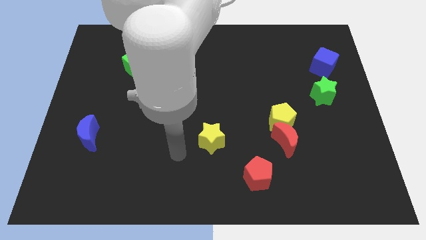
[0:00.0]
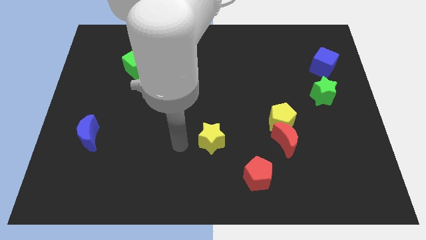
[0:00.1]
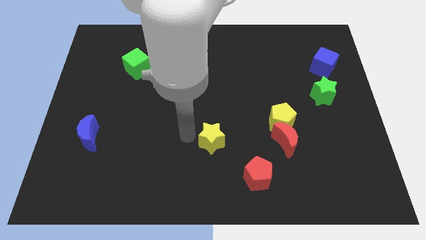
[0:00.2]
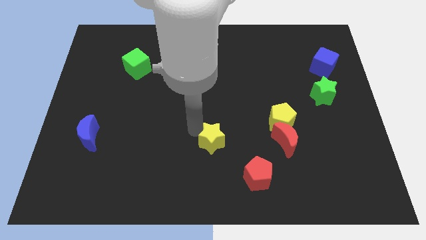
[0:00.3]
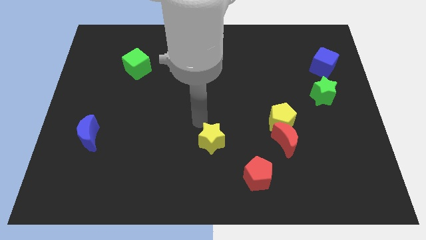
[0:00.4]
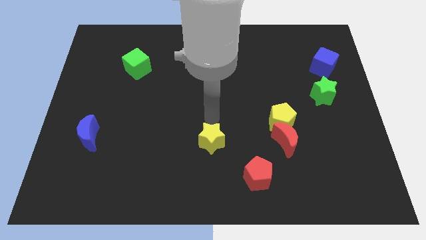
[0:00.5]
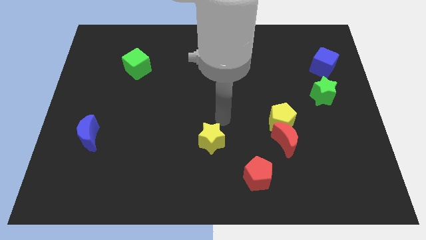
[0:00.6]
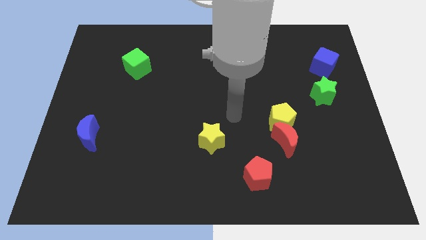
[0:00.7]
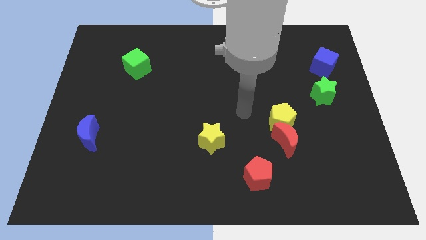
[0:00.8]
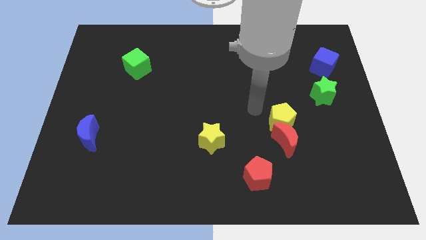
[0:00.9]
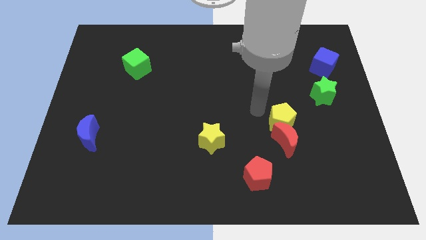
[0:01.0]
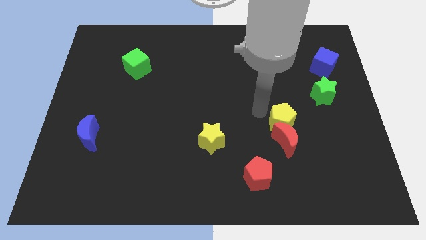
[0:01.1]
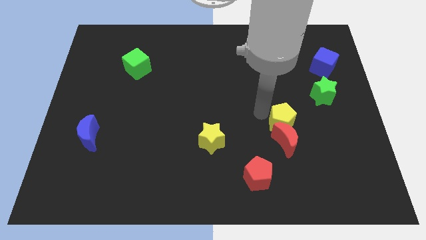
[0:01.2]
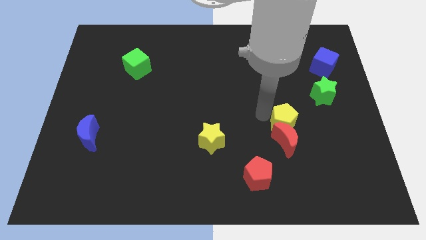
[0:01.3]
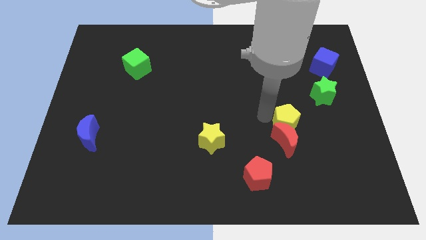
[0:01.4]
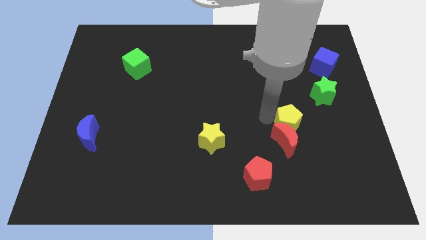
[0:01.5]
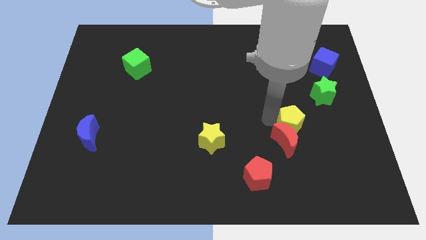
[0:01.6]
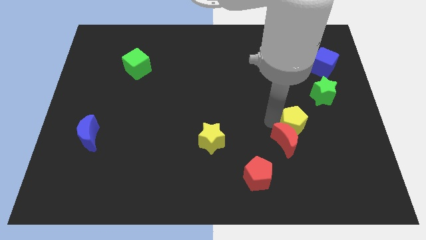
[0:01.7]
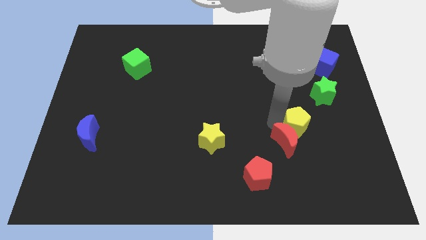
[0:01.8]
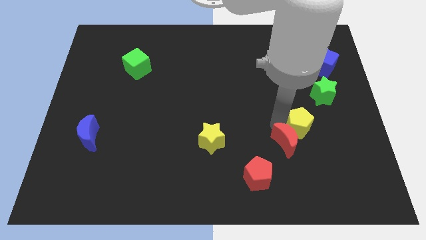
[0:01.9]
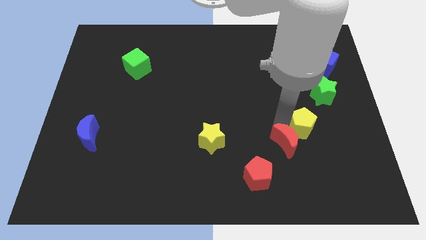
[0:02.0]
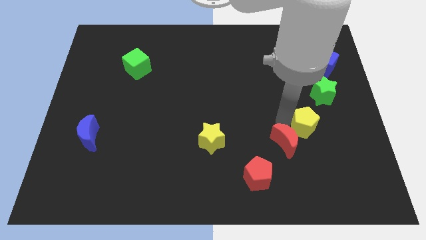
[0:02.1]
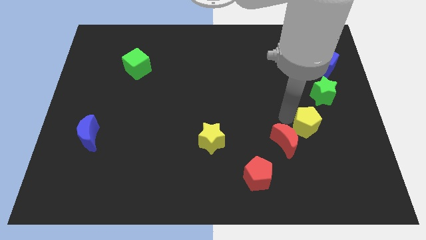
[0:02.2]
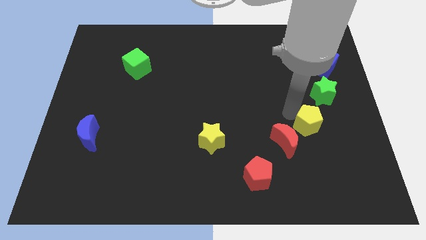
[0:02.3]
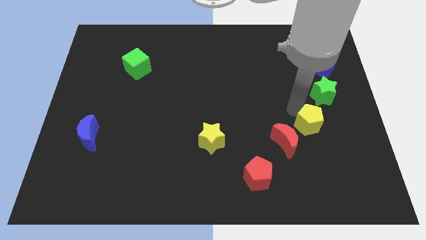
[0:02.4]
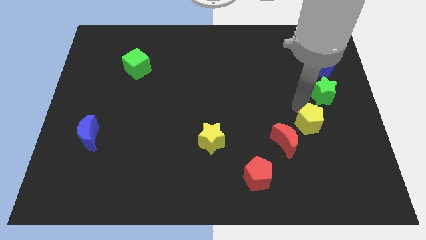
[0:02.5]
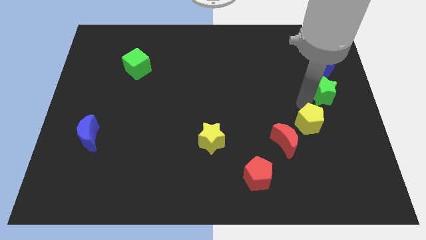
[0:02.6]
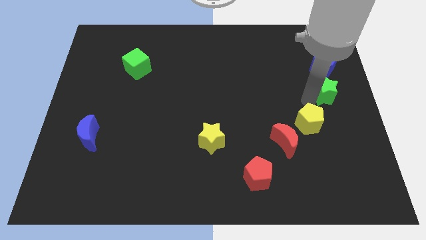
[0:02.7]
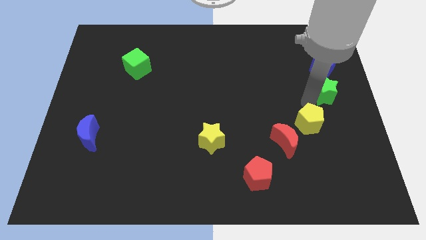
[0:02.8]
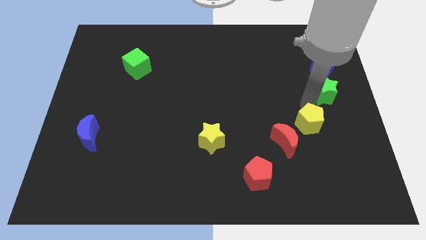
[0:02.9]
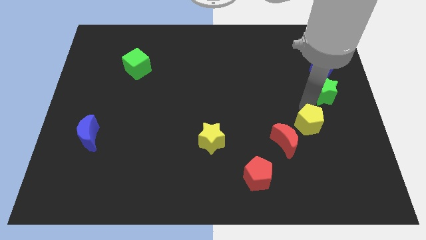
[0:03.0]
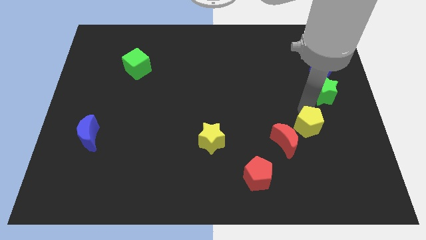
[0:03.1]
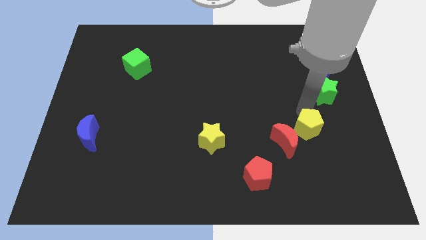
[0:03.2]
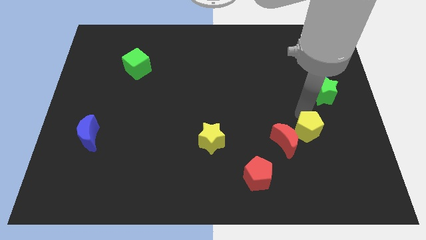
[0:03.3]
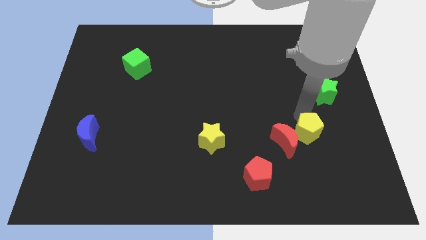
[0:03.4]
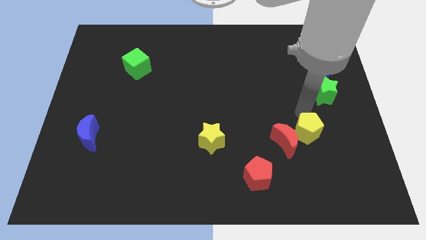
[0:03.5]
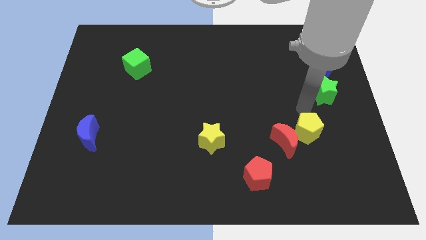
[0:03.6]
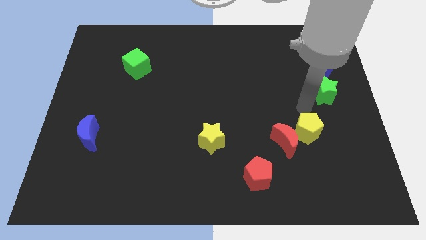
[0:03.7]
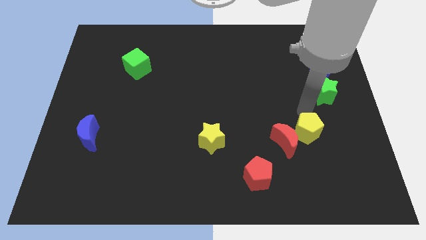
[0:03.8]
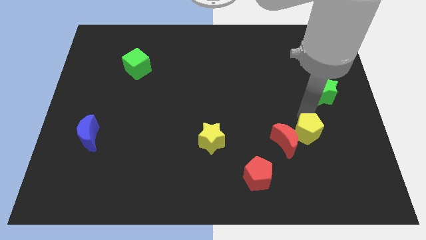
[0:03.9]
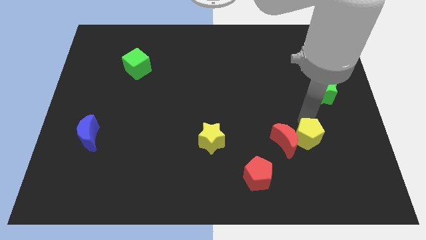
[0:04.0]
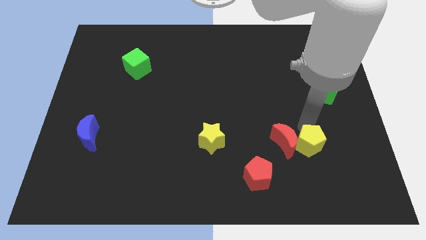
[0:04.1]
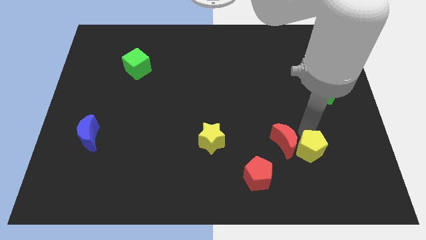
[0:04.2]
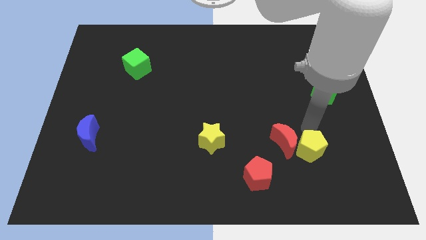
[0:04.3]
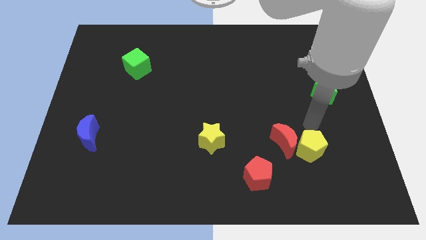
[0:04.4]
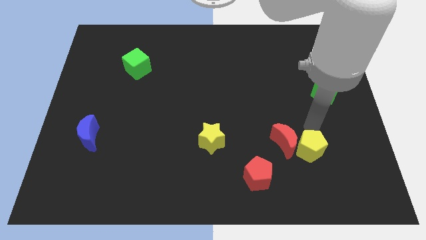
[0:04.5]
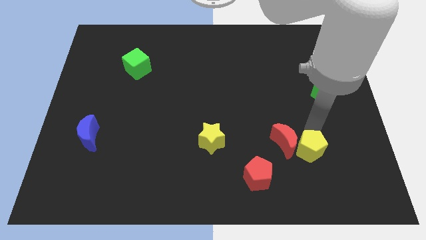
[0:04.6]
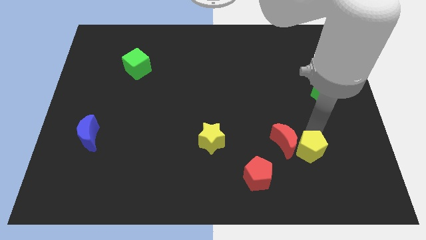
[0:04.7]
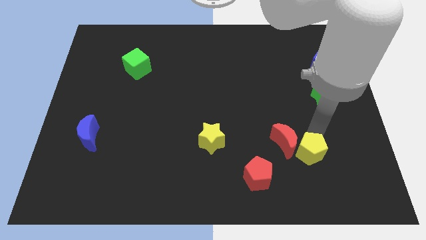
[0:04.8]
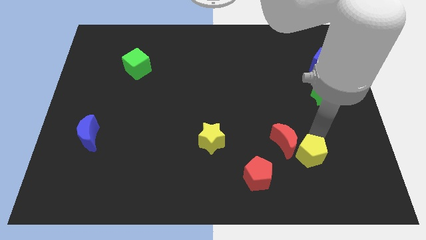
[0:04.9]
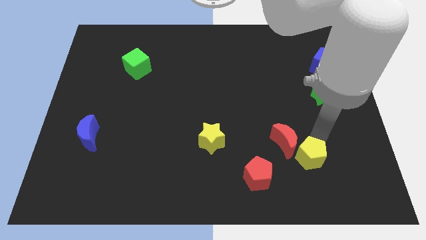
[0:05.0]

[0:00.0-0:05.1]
move the yellow pentagon to the right side of the red pentagon

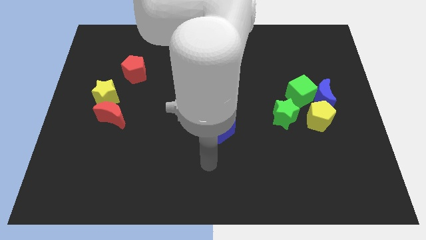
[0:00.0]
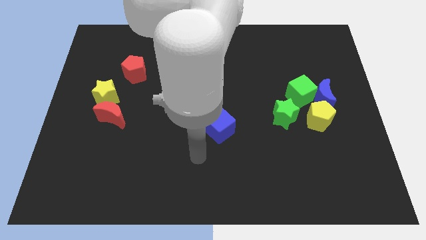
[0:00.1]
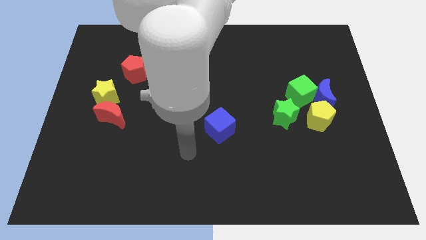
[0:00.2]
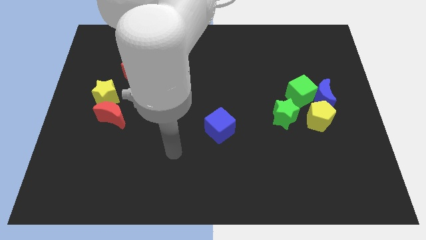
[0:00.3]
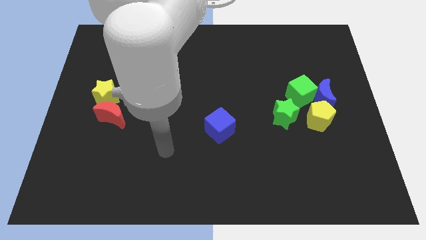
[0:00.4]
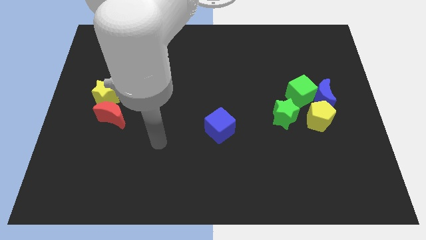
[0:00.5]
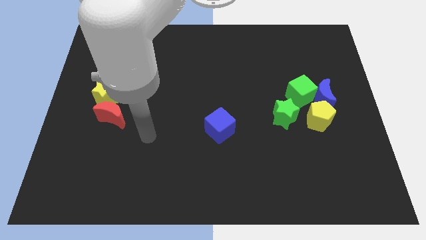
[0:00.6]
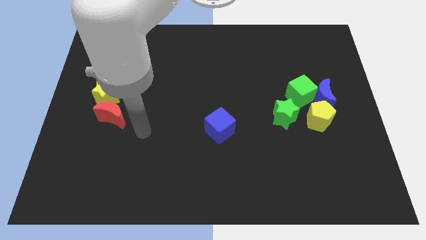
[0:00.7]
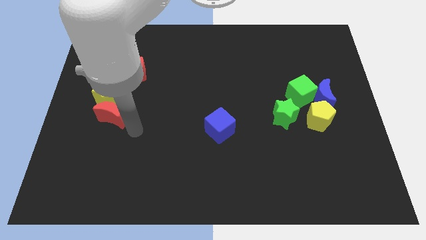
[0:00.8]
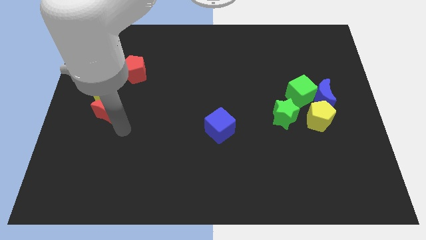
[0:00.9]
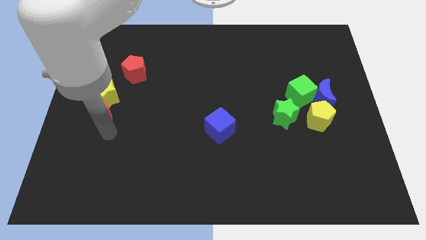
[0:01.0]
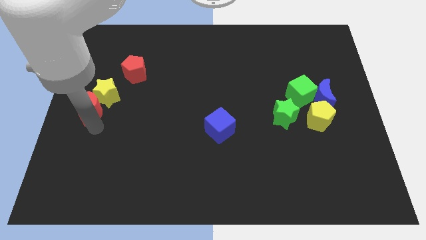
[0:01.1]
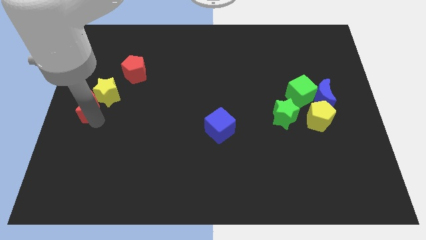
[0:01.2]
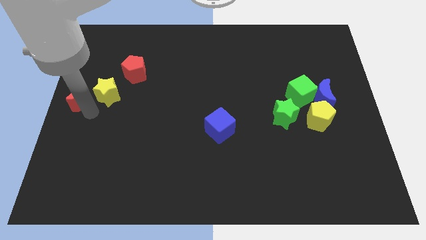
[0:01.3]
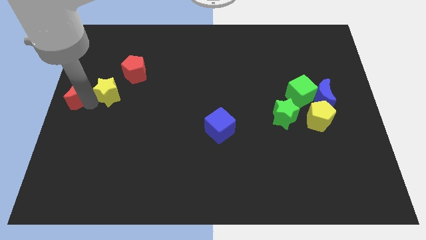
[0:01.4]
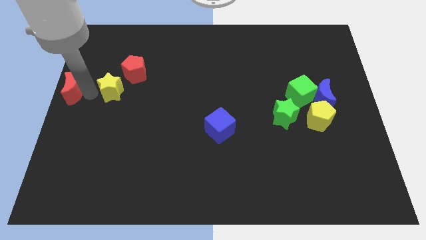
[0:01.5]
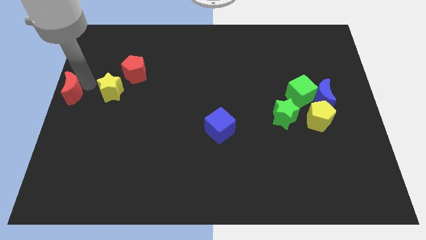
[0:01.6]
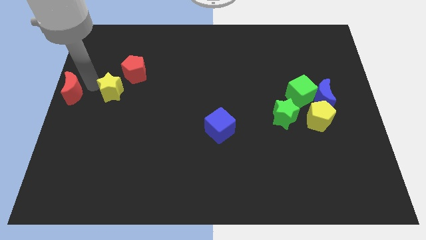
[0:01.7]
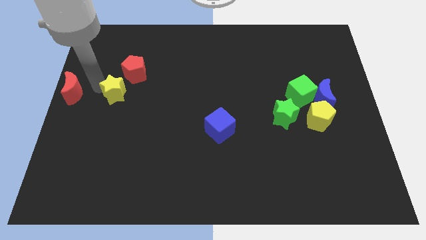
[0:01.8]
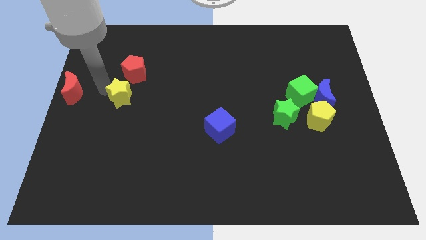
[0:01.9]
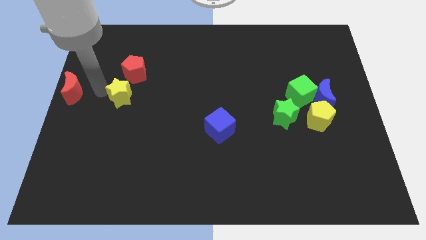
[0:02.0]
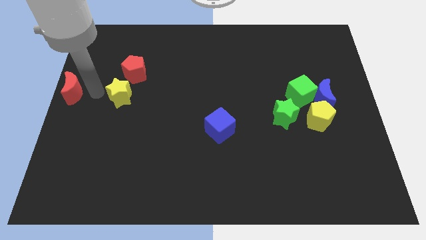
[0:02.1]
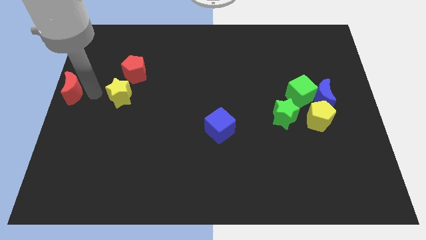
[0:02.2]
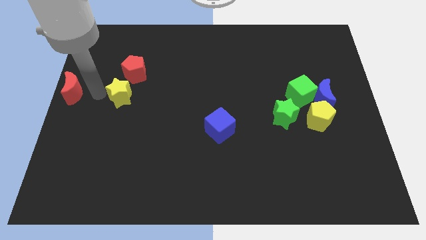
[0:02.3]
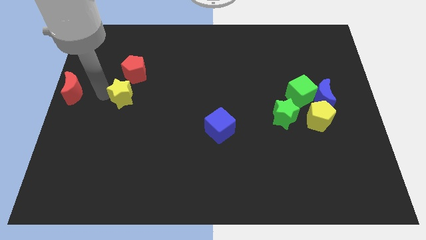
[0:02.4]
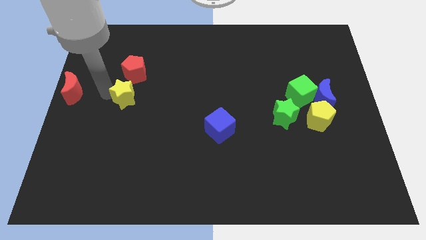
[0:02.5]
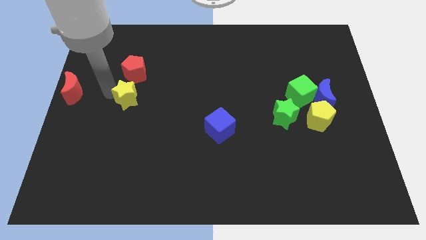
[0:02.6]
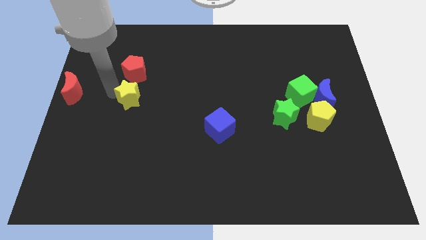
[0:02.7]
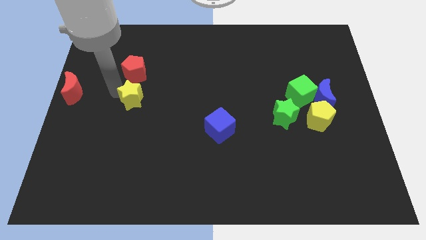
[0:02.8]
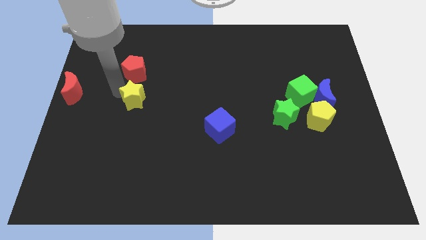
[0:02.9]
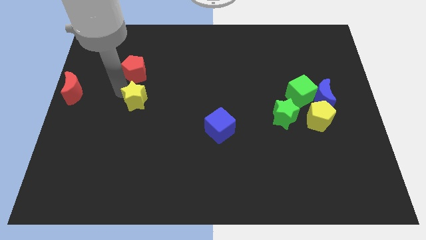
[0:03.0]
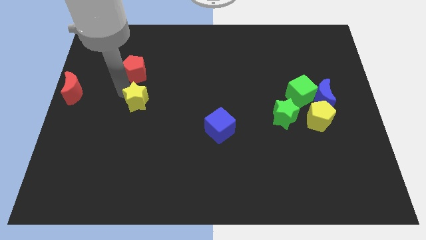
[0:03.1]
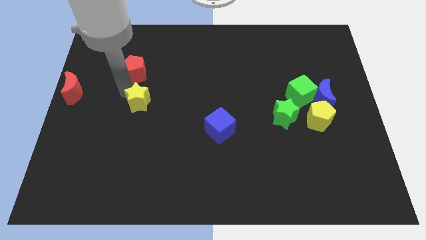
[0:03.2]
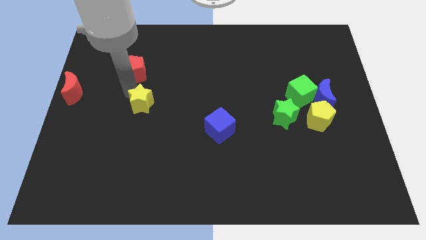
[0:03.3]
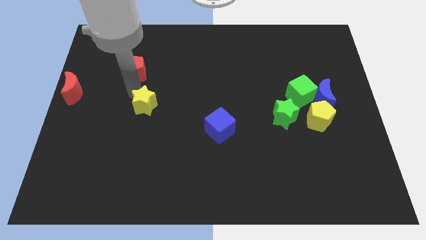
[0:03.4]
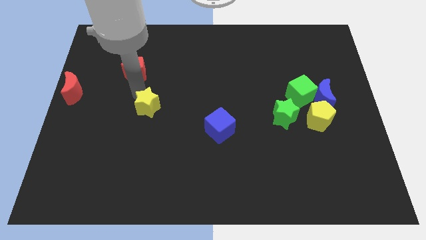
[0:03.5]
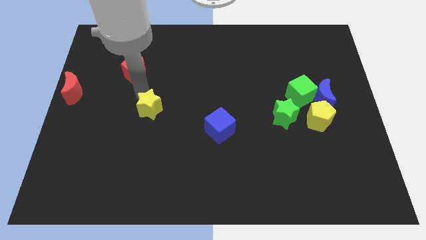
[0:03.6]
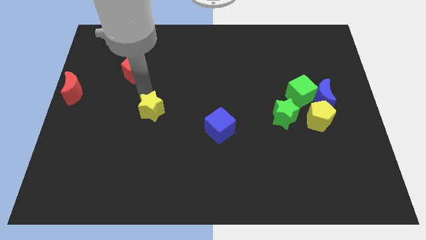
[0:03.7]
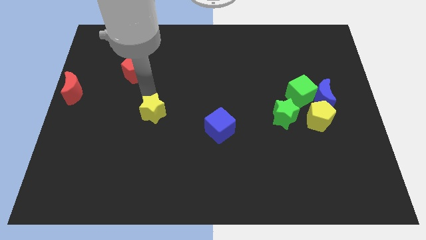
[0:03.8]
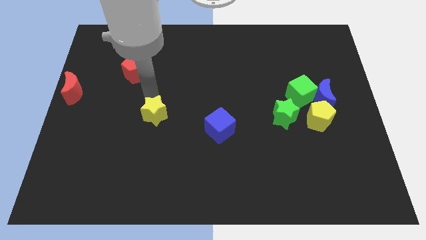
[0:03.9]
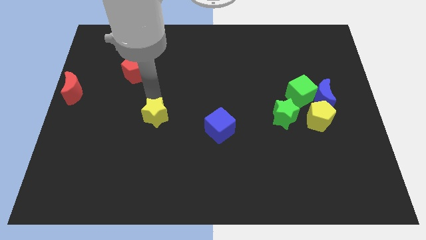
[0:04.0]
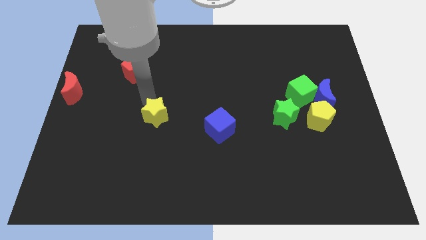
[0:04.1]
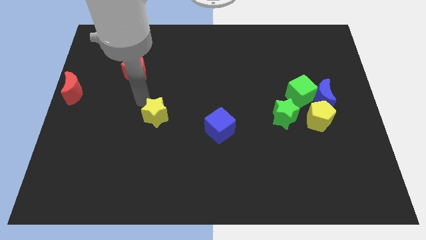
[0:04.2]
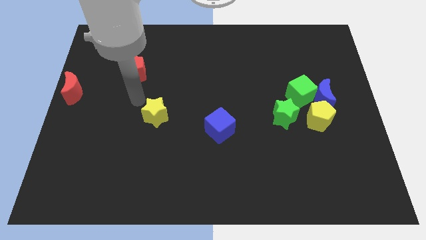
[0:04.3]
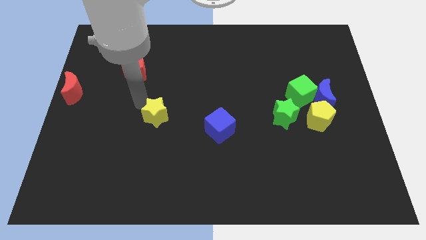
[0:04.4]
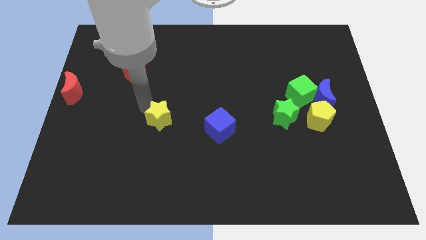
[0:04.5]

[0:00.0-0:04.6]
push the yellow star left of the blue cube
